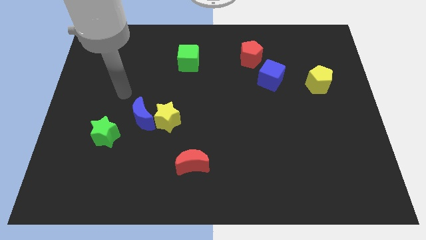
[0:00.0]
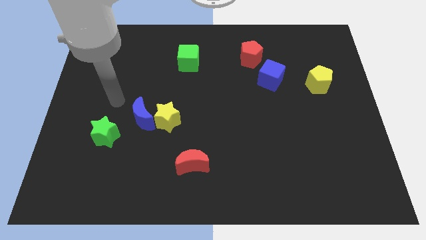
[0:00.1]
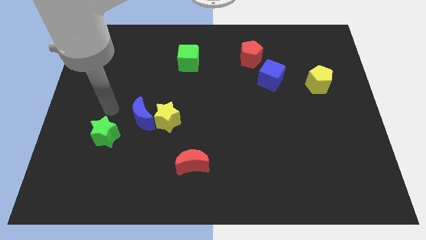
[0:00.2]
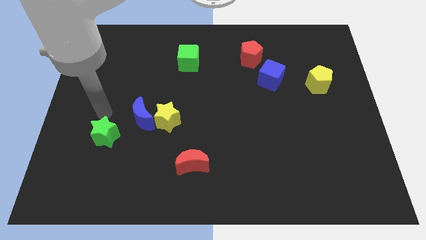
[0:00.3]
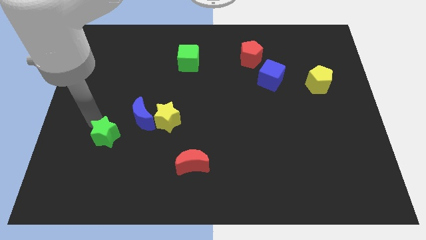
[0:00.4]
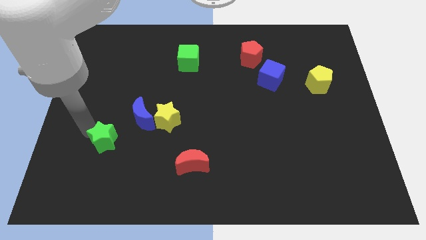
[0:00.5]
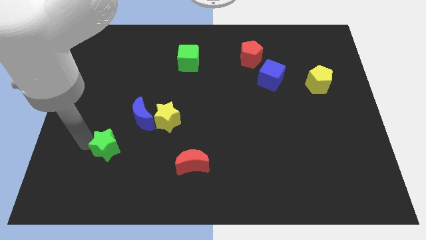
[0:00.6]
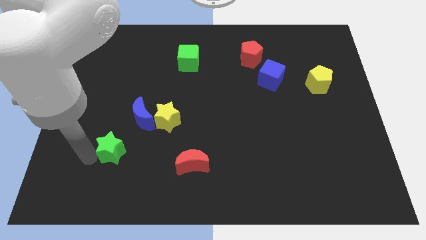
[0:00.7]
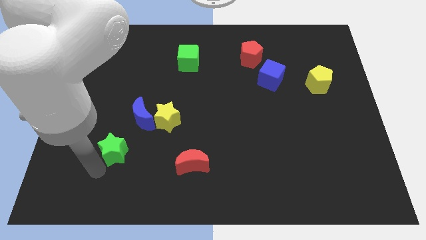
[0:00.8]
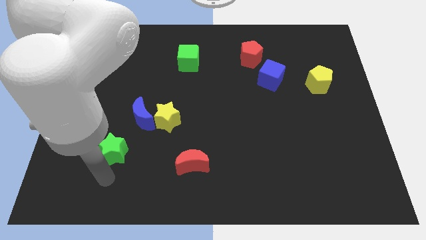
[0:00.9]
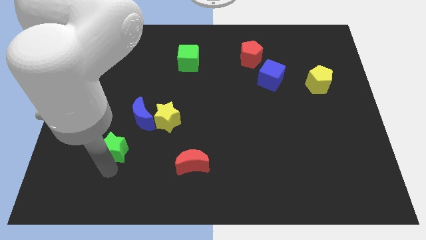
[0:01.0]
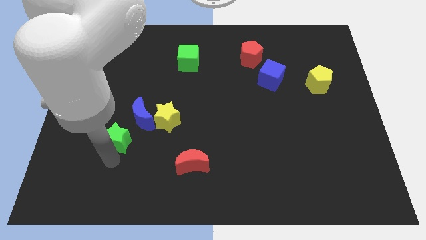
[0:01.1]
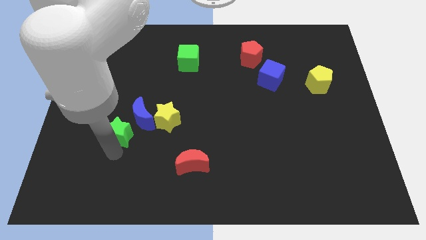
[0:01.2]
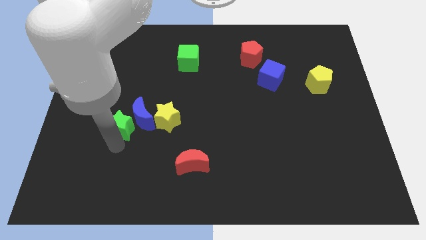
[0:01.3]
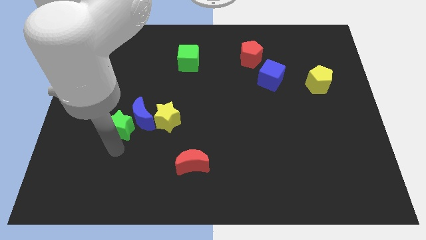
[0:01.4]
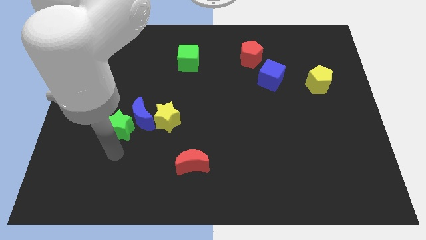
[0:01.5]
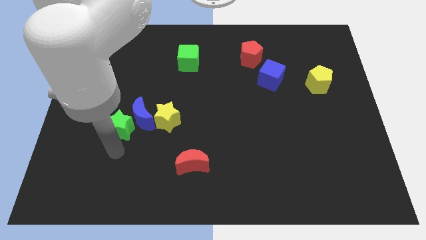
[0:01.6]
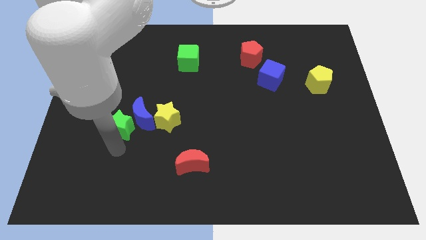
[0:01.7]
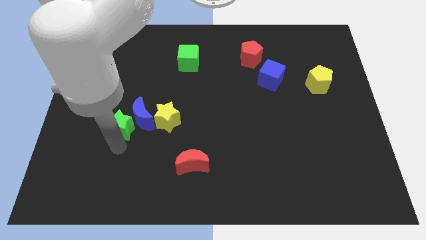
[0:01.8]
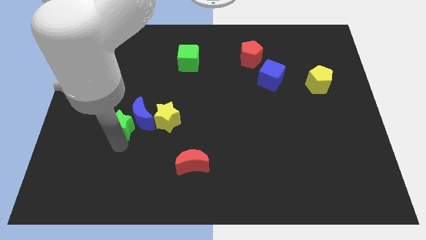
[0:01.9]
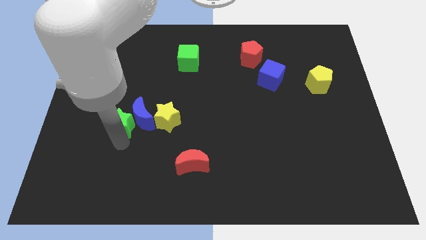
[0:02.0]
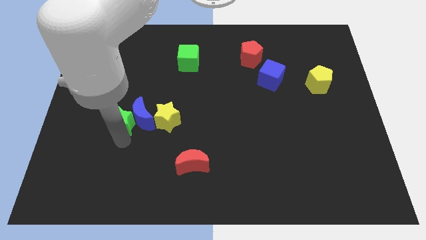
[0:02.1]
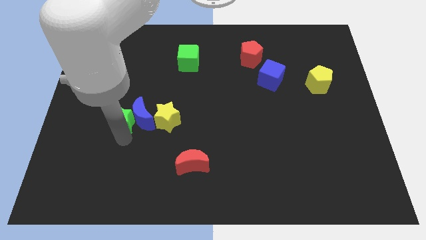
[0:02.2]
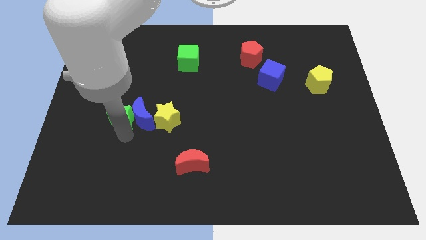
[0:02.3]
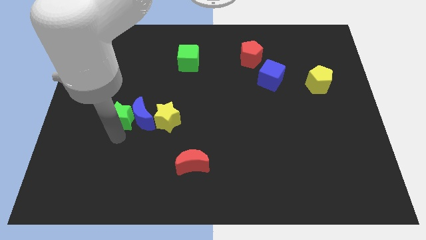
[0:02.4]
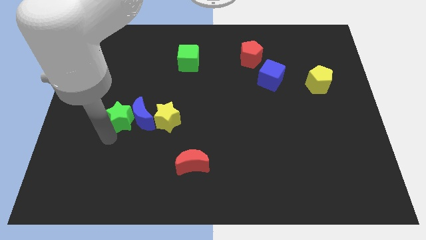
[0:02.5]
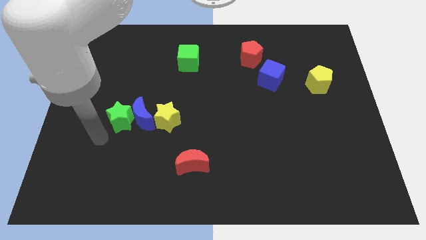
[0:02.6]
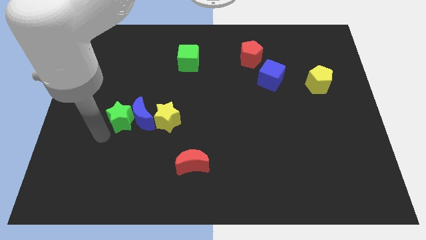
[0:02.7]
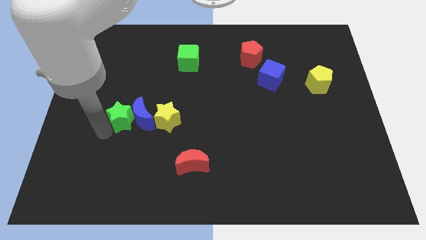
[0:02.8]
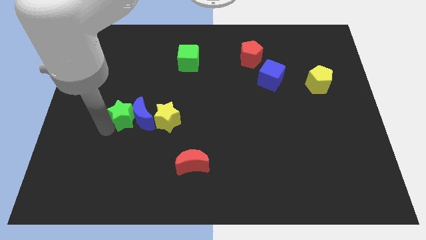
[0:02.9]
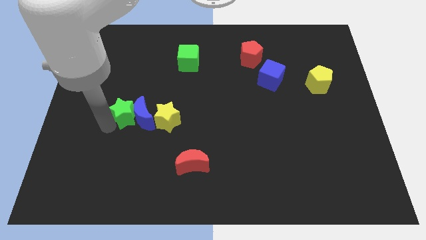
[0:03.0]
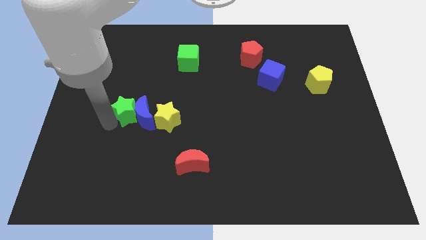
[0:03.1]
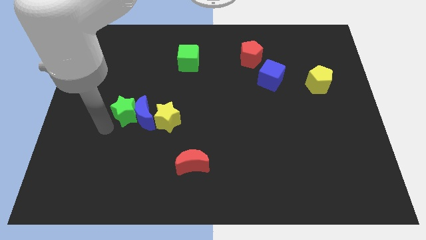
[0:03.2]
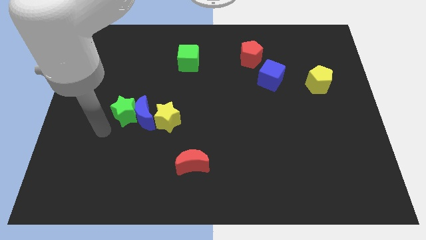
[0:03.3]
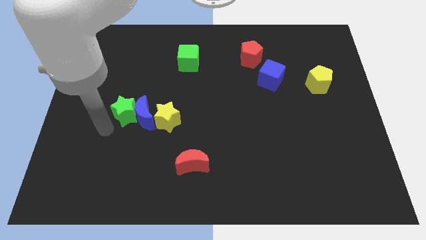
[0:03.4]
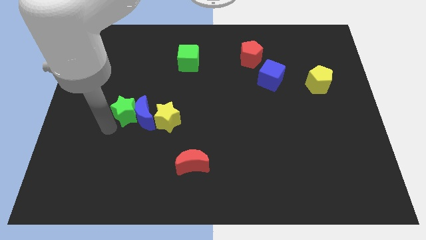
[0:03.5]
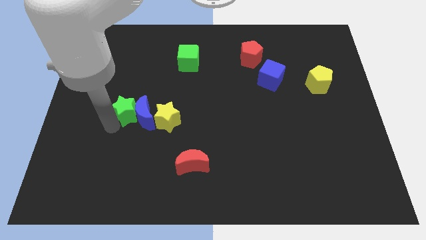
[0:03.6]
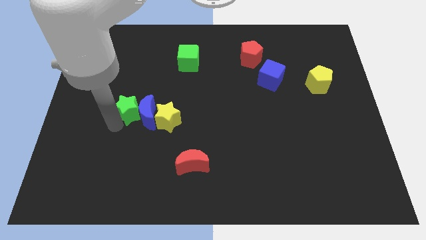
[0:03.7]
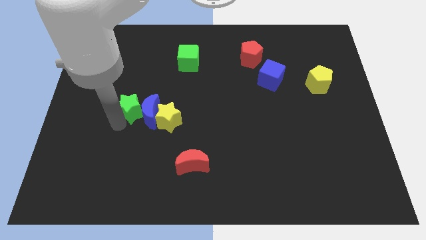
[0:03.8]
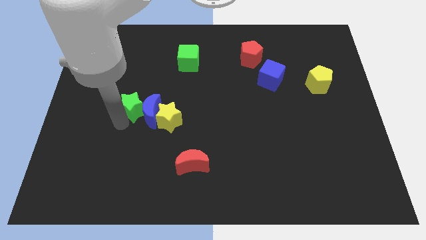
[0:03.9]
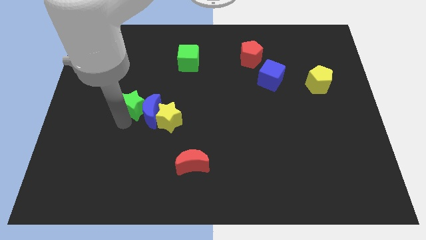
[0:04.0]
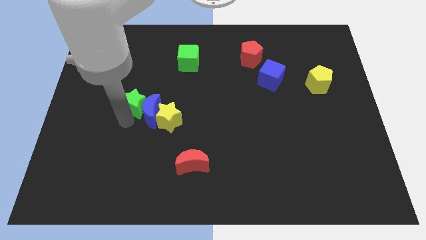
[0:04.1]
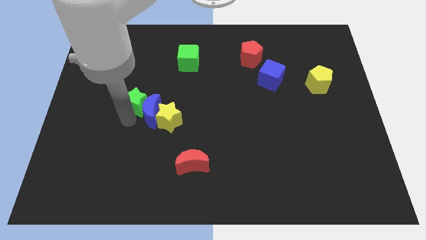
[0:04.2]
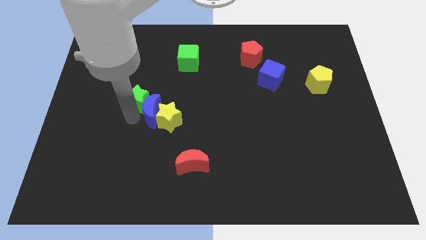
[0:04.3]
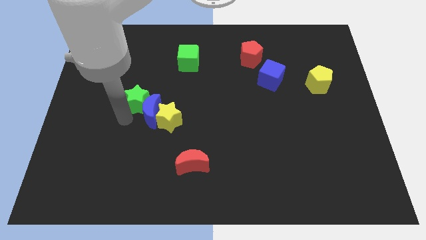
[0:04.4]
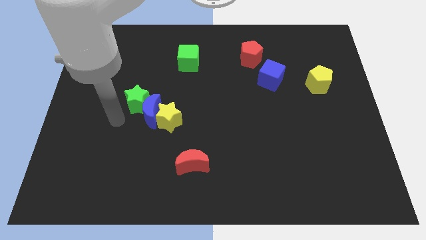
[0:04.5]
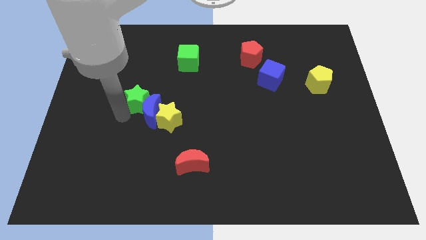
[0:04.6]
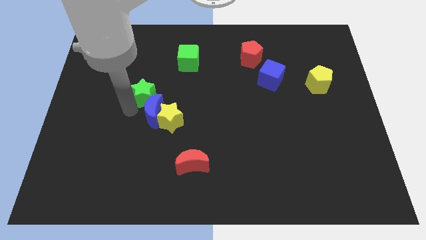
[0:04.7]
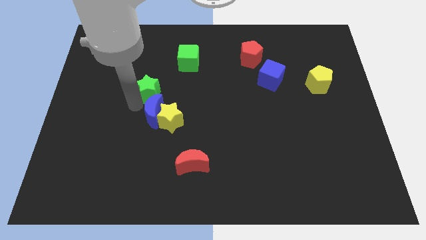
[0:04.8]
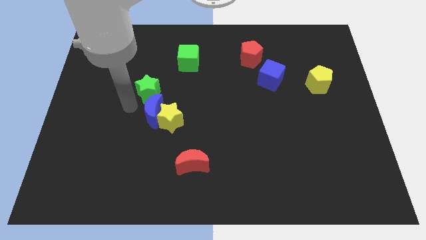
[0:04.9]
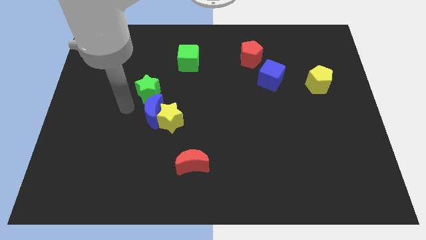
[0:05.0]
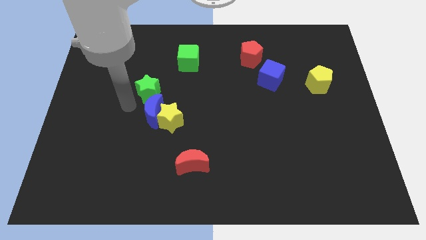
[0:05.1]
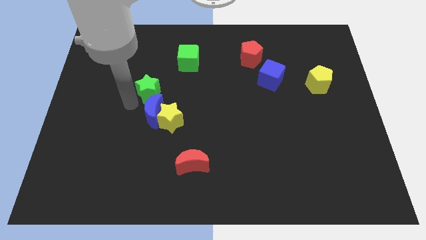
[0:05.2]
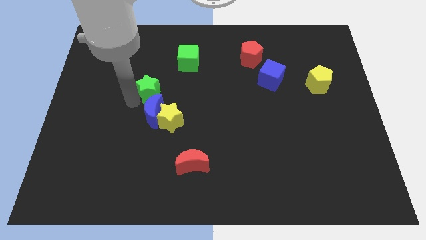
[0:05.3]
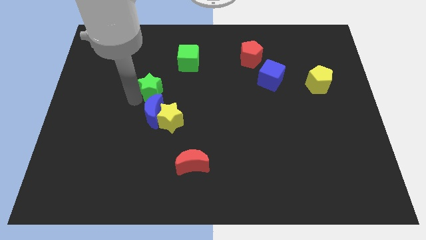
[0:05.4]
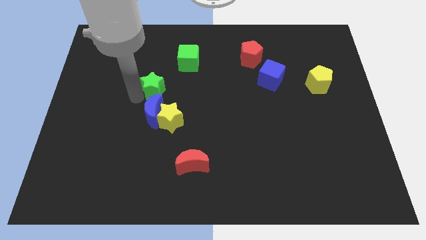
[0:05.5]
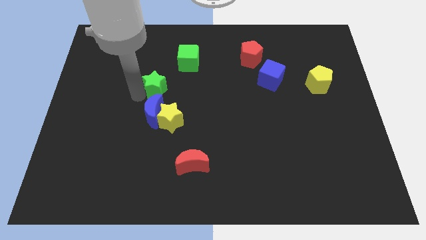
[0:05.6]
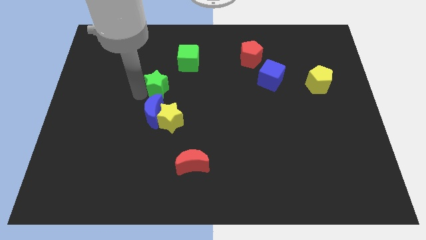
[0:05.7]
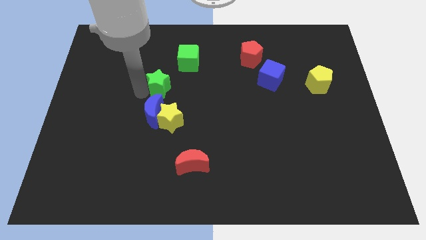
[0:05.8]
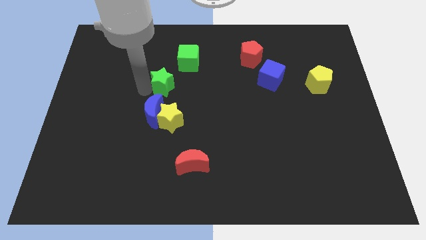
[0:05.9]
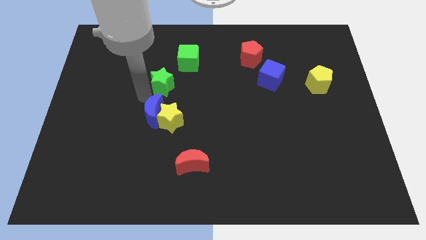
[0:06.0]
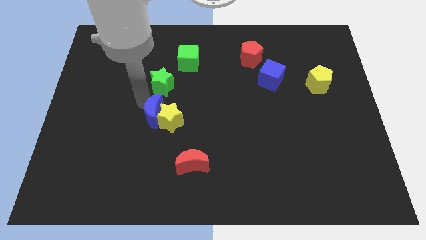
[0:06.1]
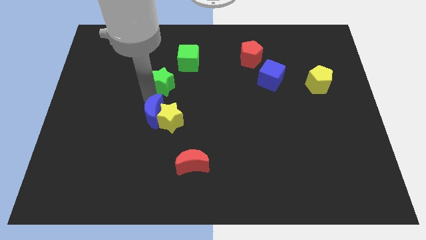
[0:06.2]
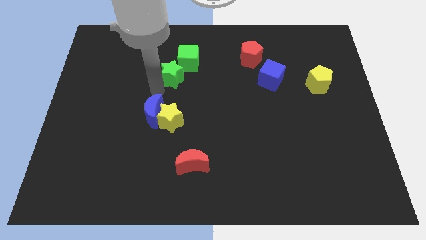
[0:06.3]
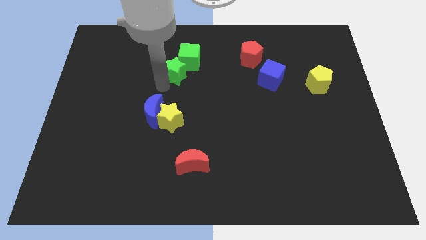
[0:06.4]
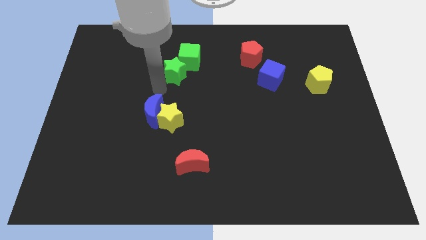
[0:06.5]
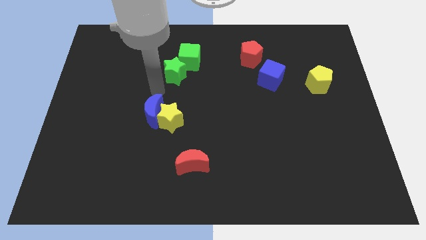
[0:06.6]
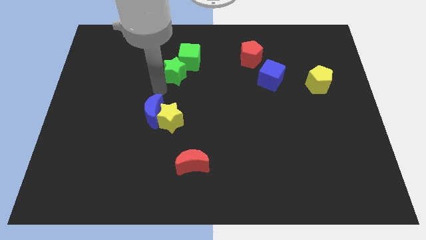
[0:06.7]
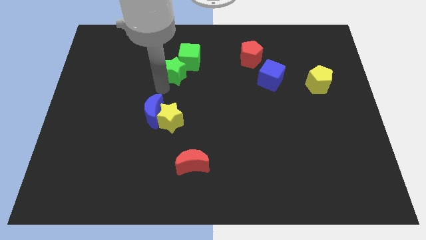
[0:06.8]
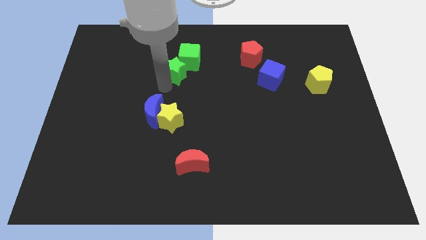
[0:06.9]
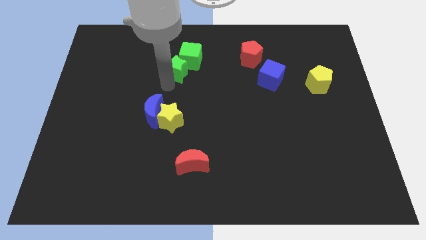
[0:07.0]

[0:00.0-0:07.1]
put the green star to the green cube
